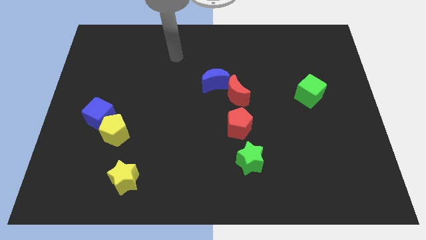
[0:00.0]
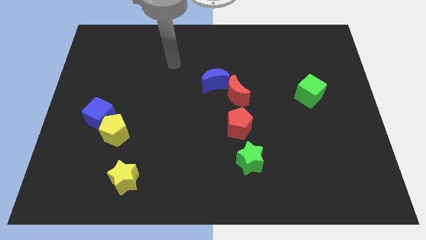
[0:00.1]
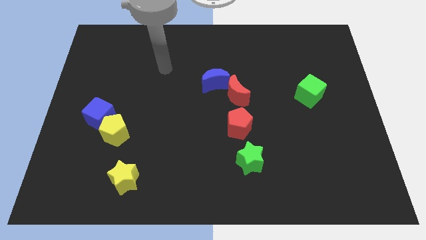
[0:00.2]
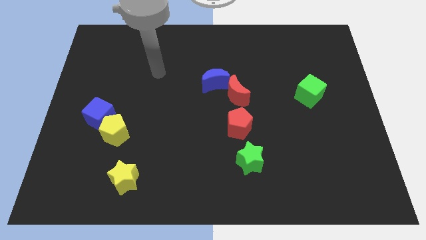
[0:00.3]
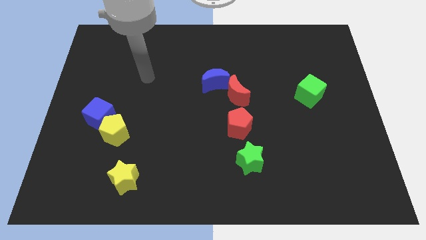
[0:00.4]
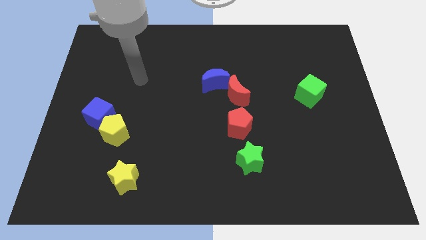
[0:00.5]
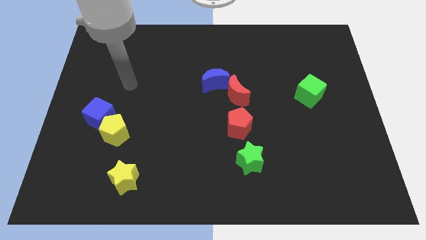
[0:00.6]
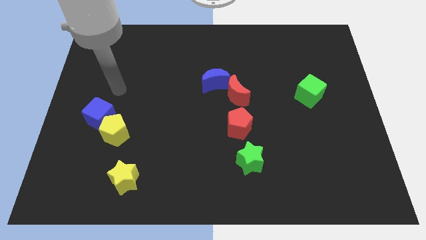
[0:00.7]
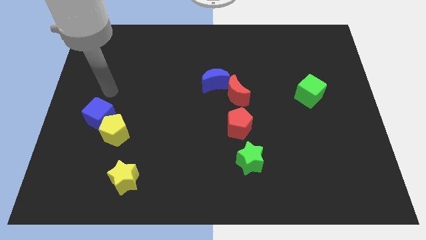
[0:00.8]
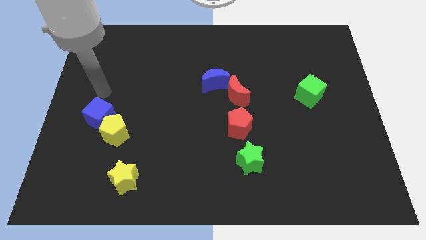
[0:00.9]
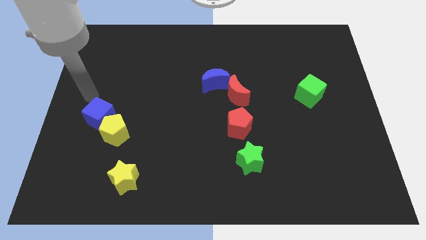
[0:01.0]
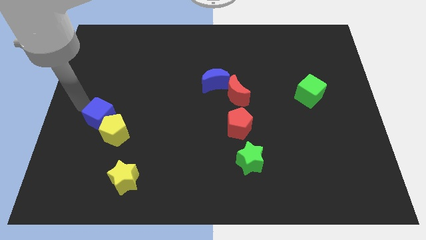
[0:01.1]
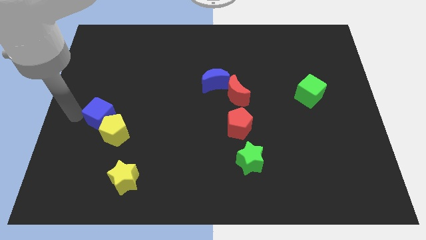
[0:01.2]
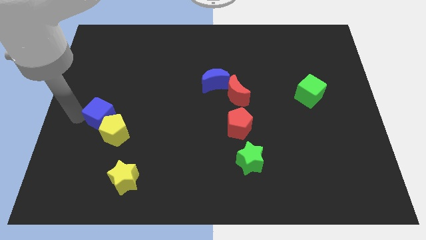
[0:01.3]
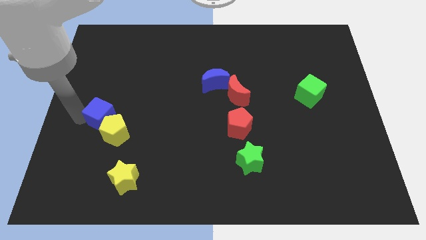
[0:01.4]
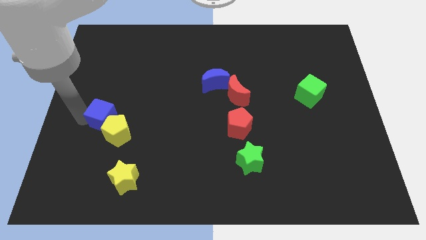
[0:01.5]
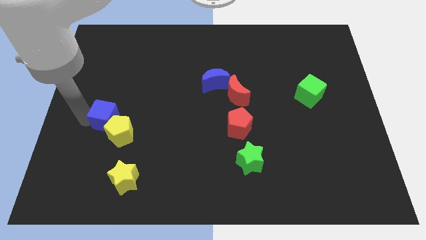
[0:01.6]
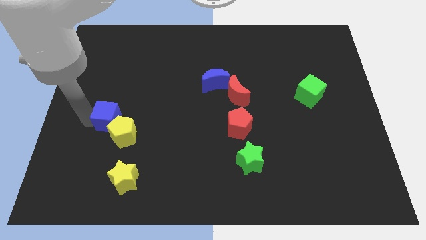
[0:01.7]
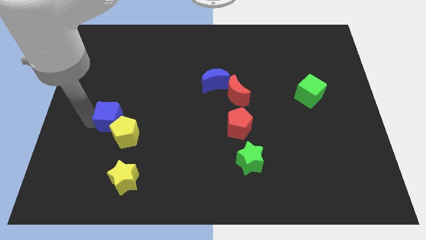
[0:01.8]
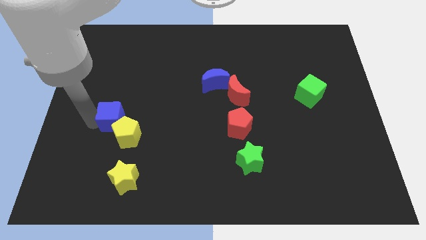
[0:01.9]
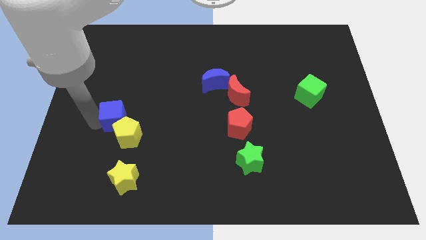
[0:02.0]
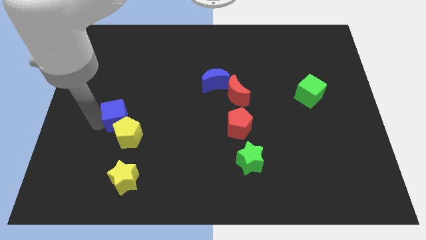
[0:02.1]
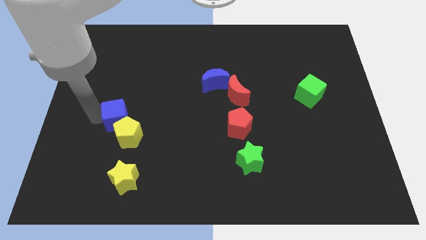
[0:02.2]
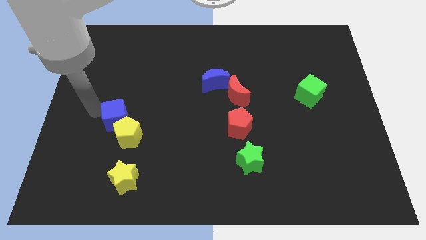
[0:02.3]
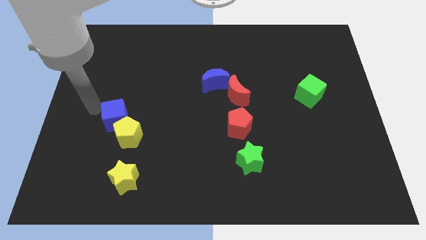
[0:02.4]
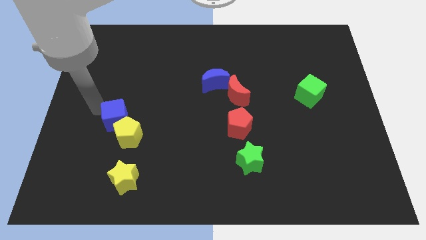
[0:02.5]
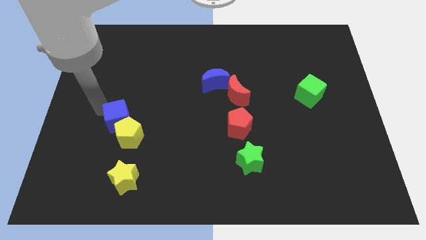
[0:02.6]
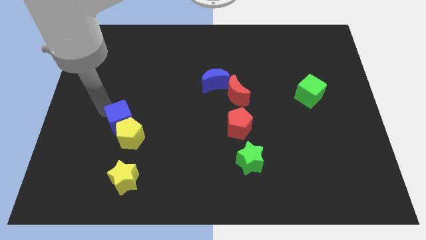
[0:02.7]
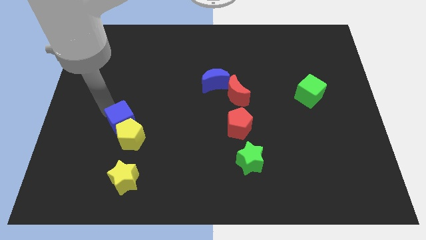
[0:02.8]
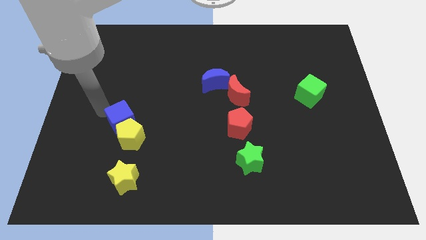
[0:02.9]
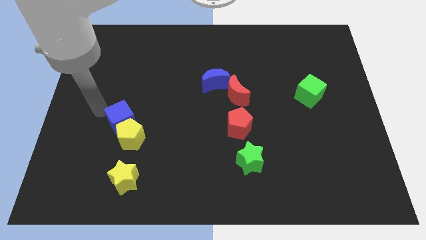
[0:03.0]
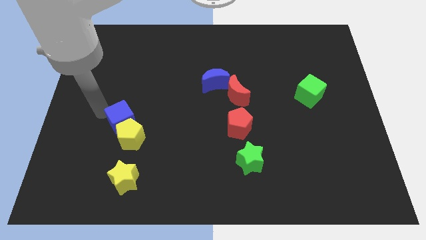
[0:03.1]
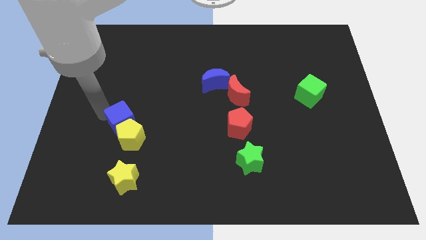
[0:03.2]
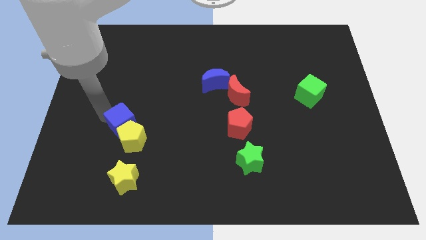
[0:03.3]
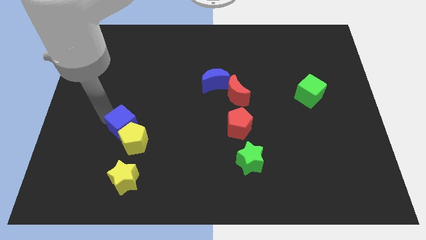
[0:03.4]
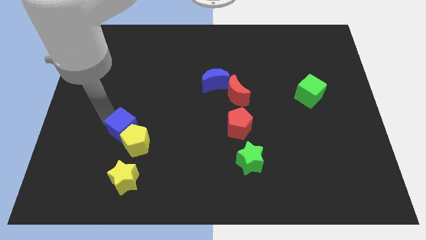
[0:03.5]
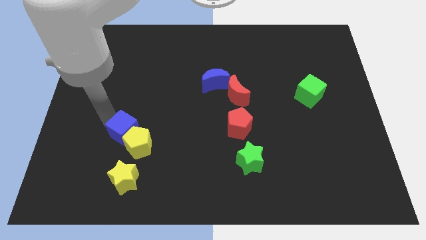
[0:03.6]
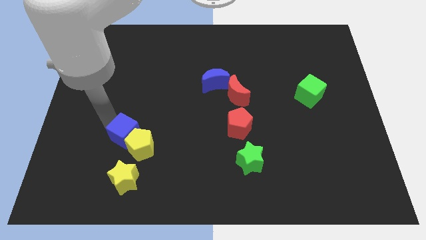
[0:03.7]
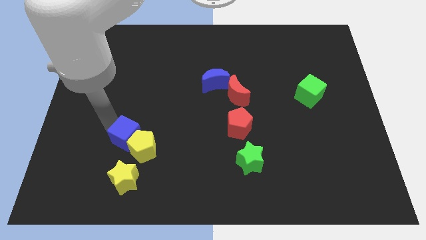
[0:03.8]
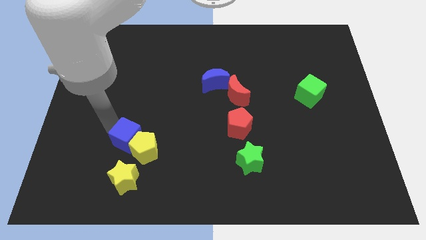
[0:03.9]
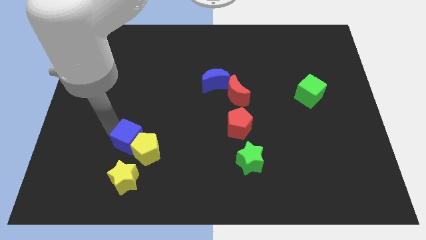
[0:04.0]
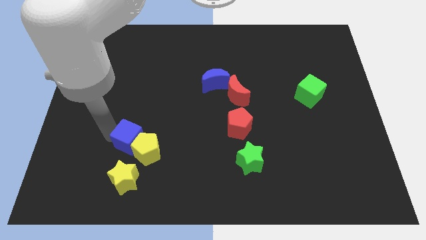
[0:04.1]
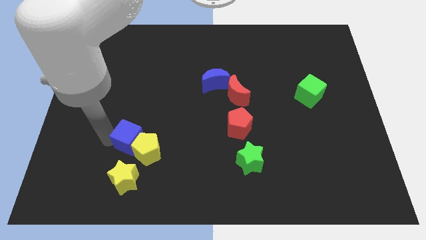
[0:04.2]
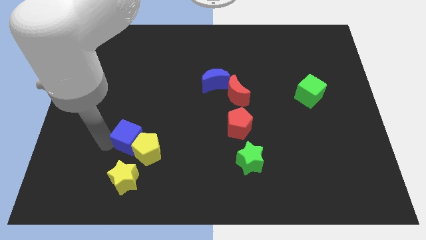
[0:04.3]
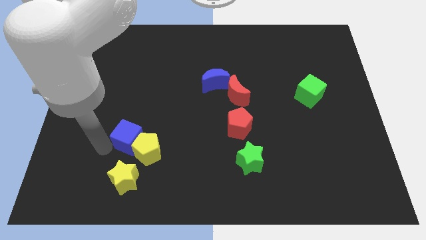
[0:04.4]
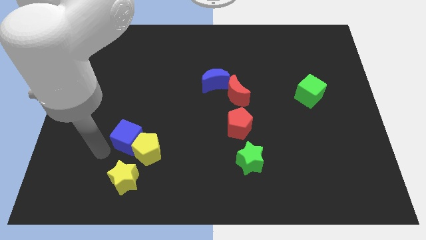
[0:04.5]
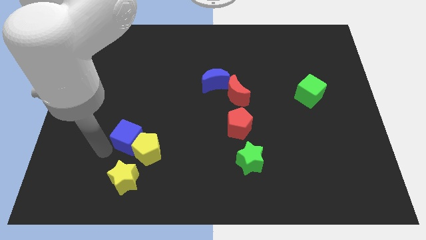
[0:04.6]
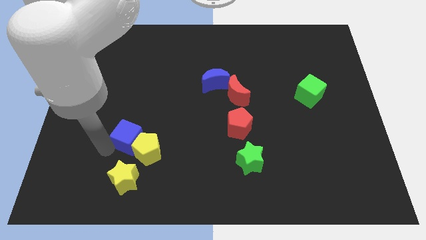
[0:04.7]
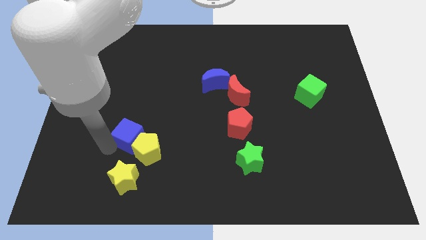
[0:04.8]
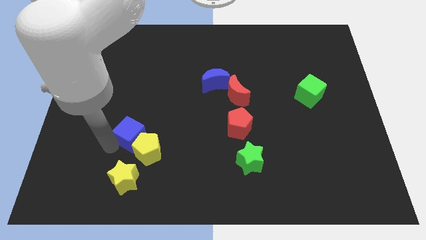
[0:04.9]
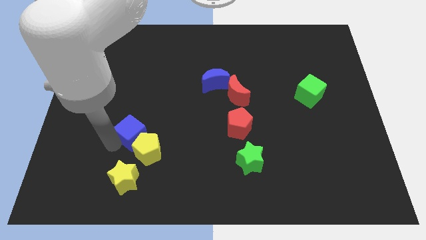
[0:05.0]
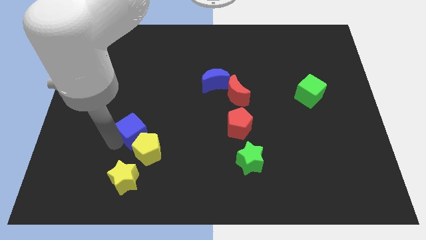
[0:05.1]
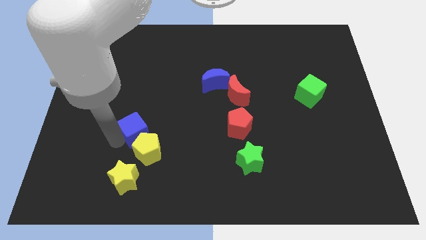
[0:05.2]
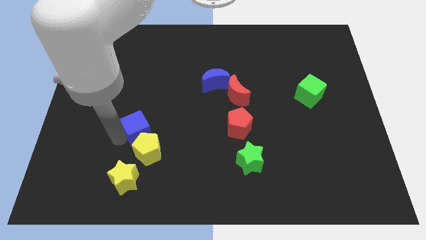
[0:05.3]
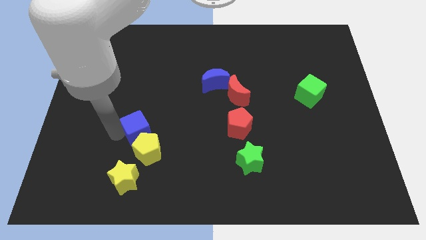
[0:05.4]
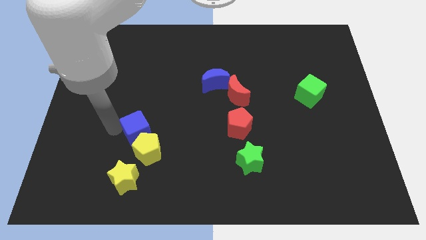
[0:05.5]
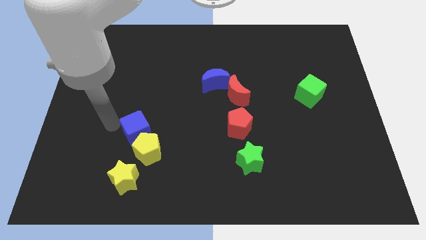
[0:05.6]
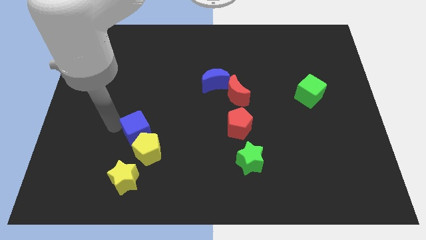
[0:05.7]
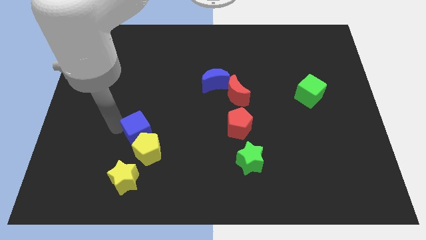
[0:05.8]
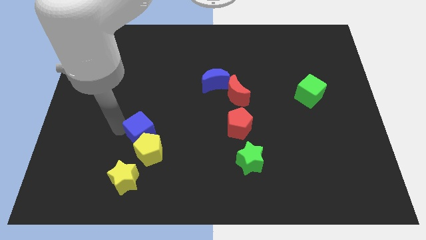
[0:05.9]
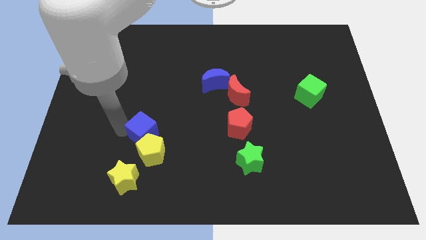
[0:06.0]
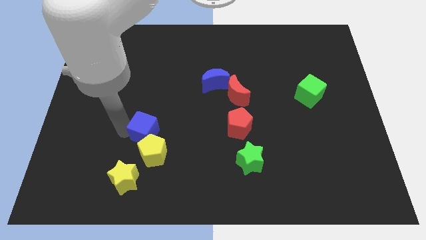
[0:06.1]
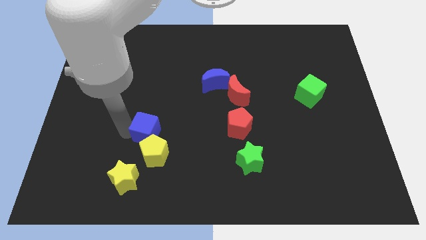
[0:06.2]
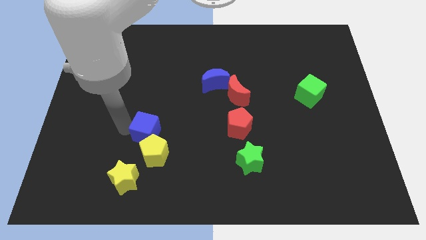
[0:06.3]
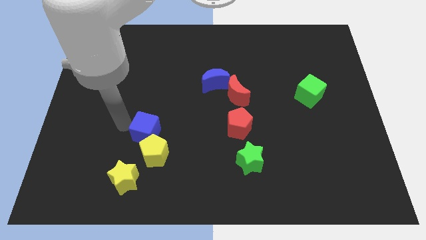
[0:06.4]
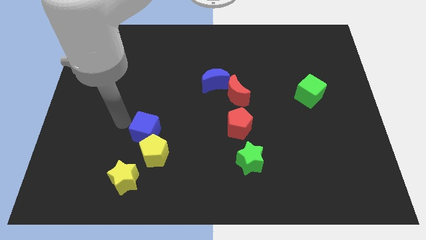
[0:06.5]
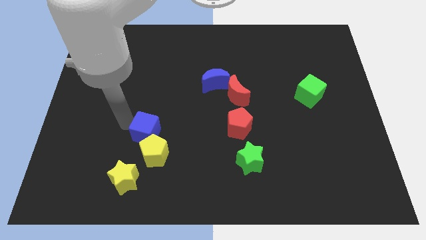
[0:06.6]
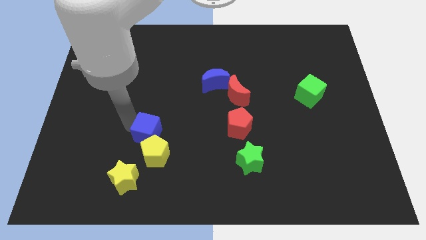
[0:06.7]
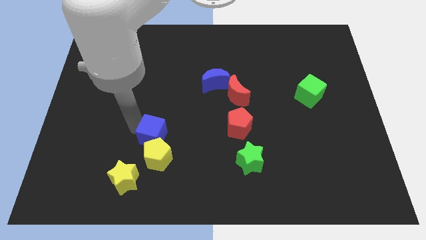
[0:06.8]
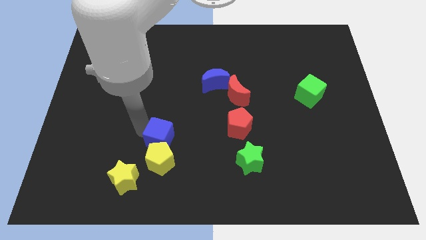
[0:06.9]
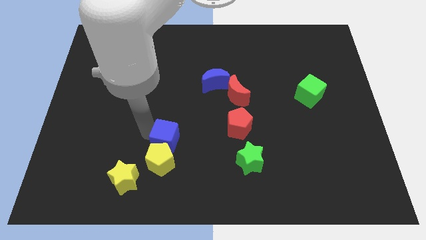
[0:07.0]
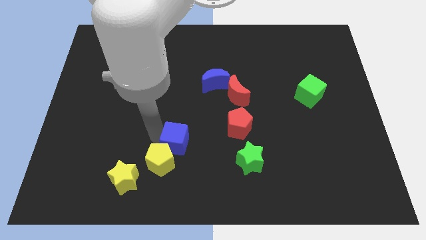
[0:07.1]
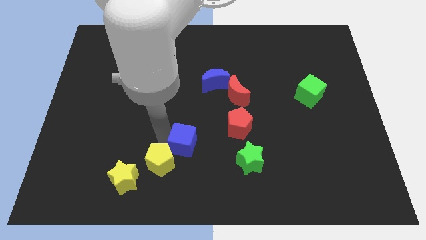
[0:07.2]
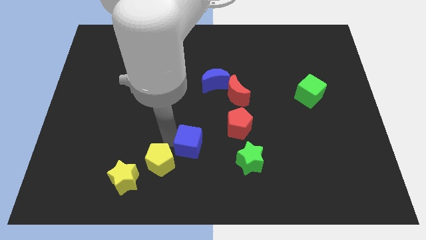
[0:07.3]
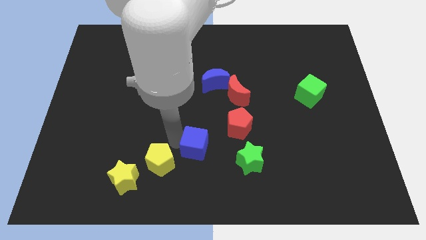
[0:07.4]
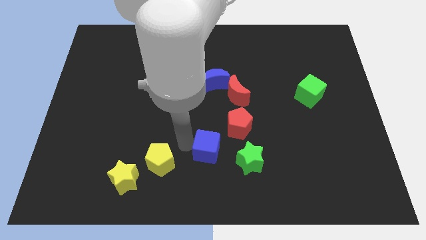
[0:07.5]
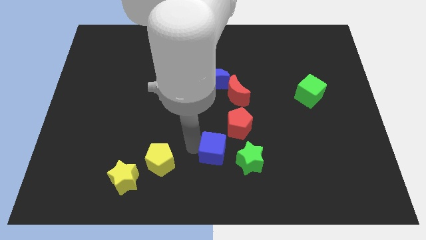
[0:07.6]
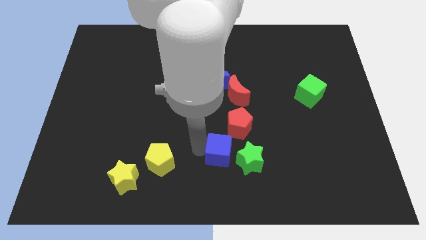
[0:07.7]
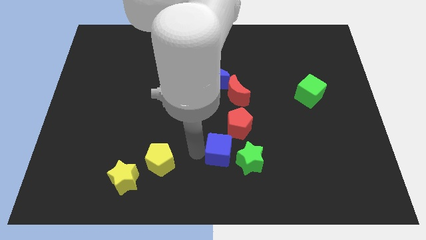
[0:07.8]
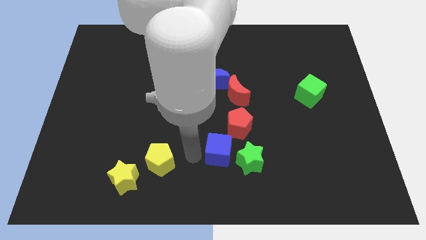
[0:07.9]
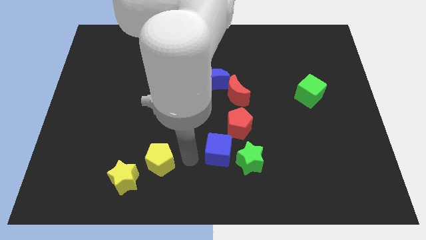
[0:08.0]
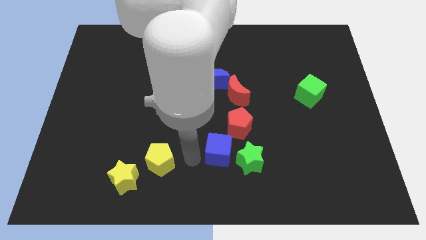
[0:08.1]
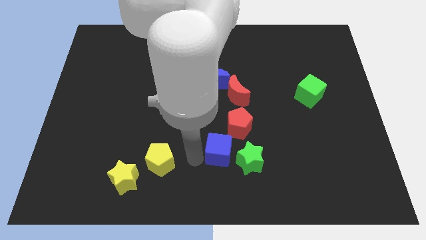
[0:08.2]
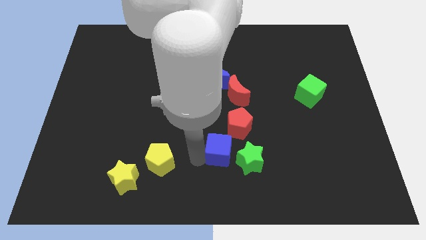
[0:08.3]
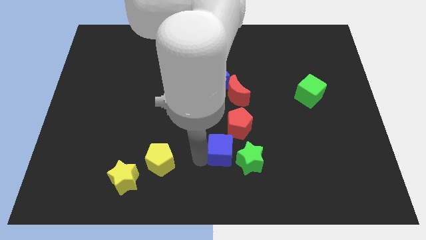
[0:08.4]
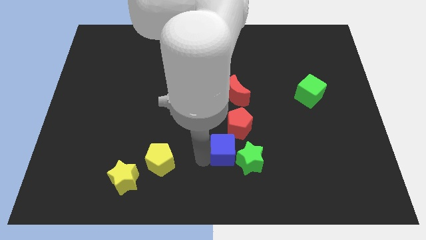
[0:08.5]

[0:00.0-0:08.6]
put the blue cube towards the green star
